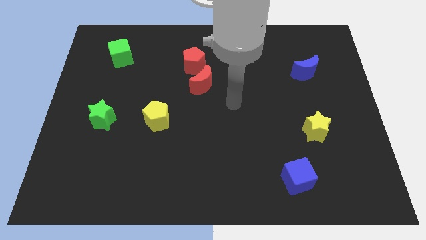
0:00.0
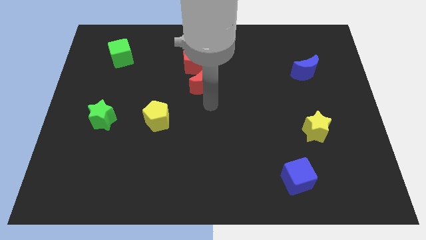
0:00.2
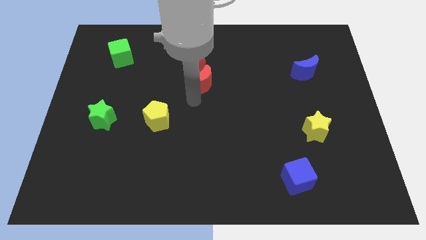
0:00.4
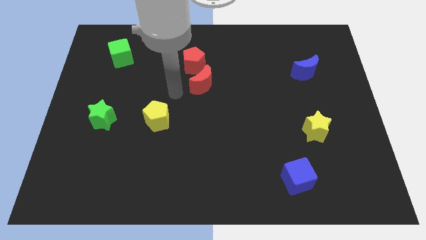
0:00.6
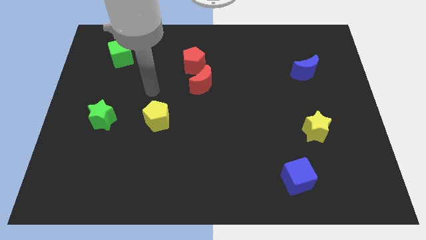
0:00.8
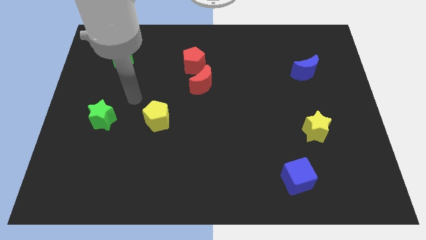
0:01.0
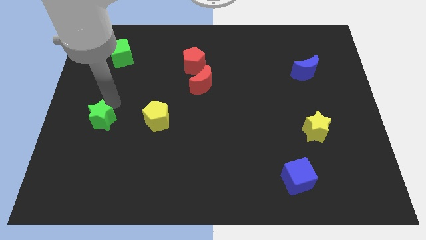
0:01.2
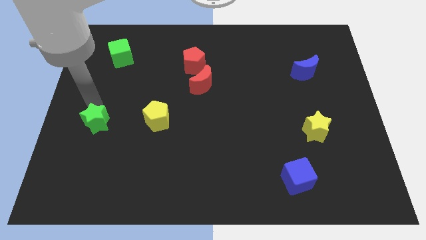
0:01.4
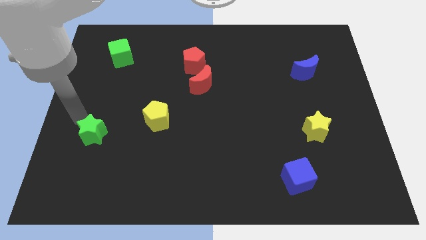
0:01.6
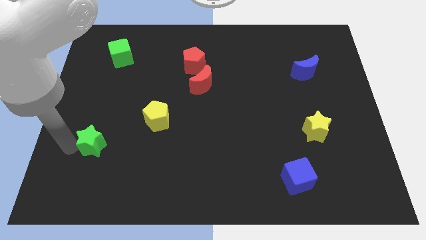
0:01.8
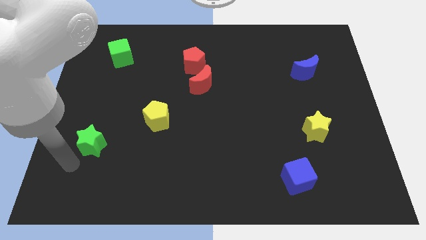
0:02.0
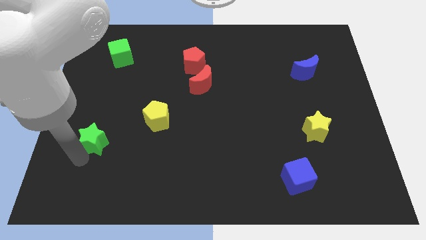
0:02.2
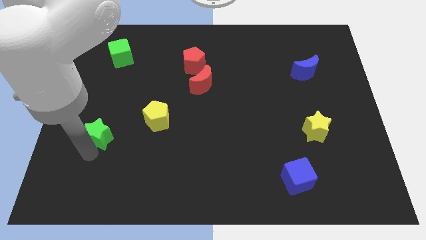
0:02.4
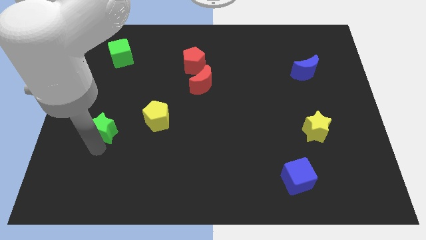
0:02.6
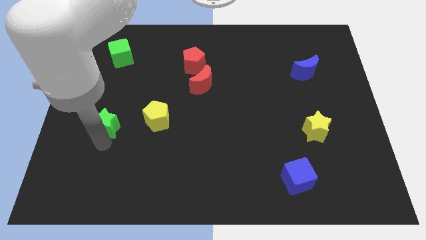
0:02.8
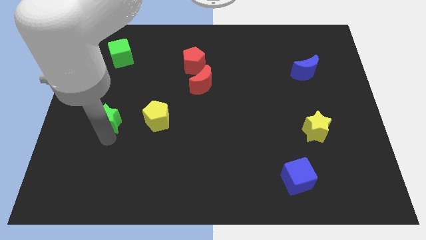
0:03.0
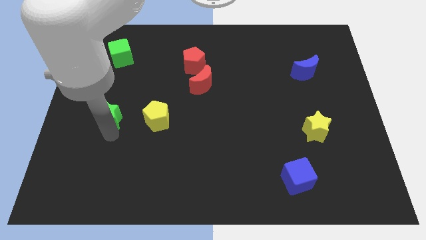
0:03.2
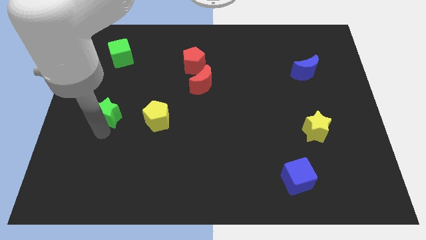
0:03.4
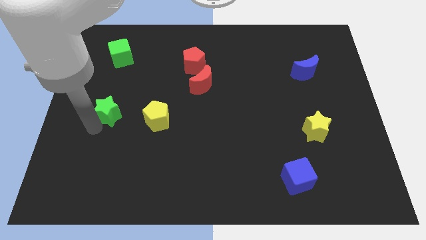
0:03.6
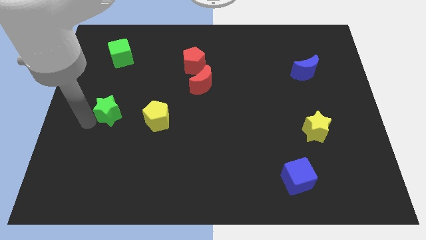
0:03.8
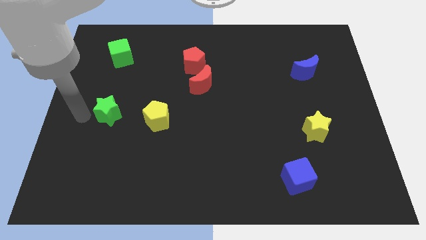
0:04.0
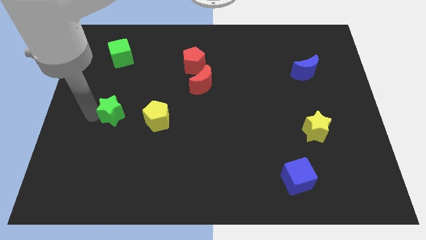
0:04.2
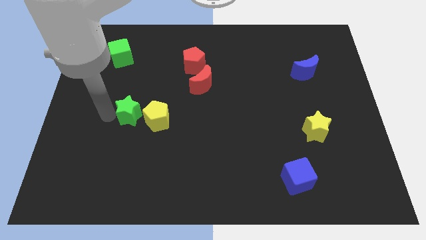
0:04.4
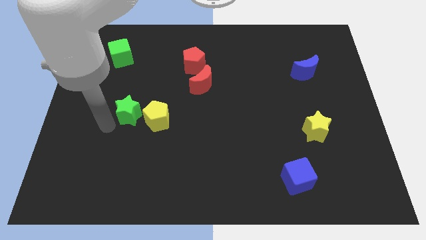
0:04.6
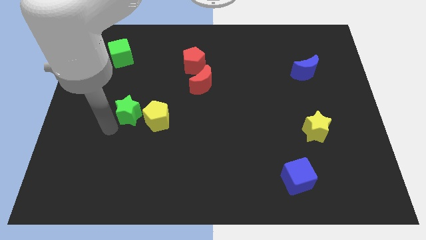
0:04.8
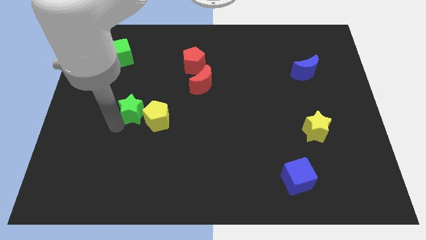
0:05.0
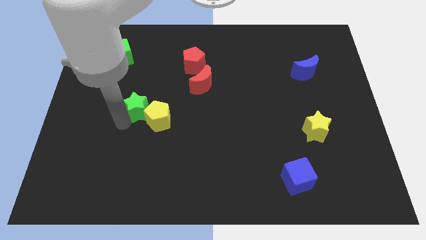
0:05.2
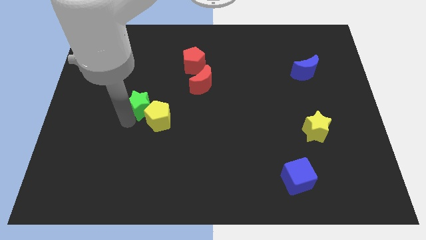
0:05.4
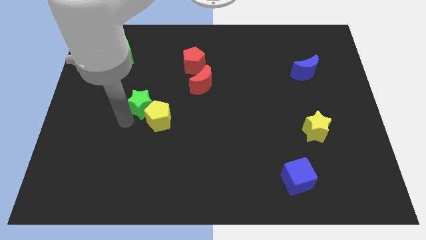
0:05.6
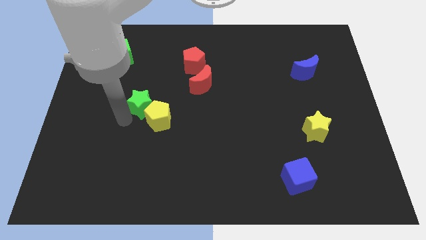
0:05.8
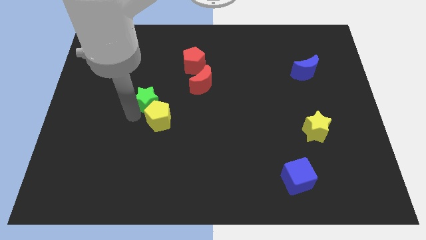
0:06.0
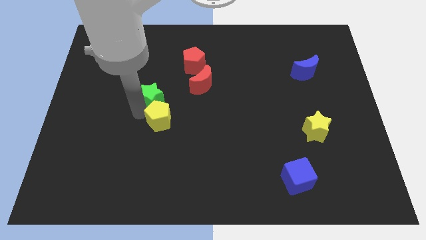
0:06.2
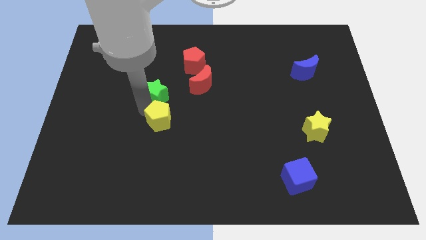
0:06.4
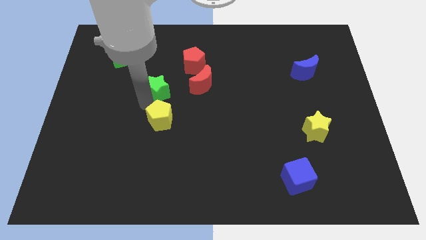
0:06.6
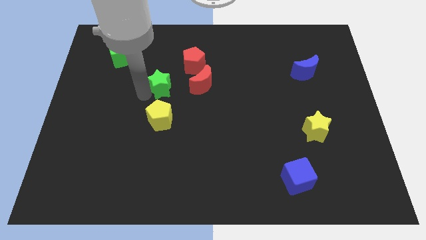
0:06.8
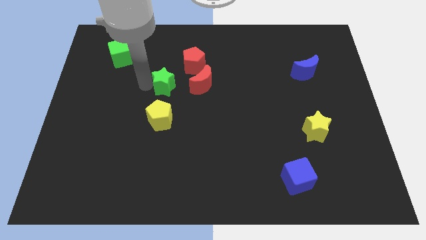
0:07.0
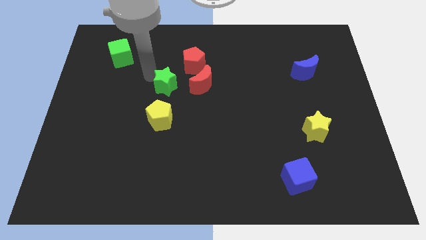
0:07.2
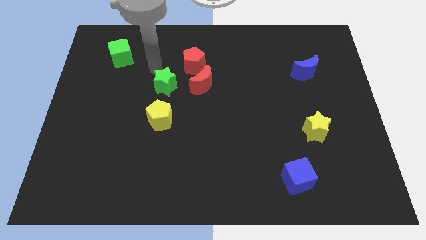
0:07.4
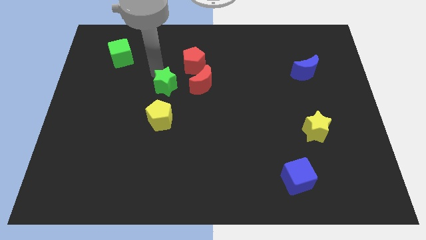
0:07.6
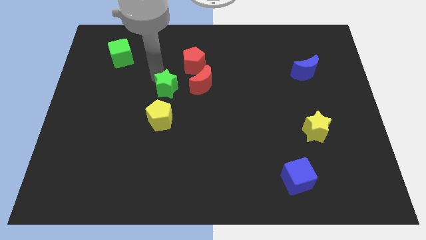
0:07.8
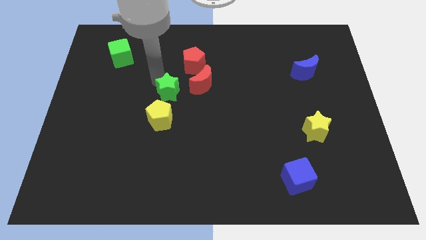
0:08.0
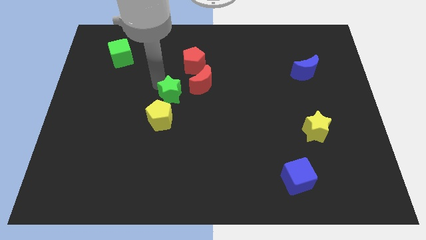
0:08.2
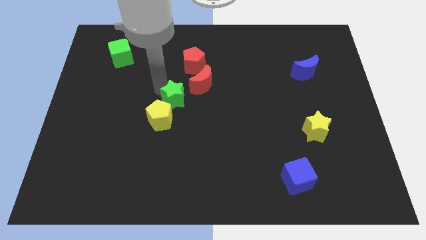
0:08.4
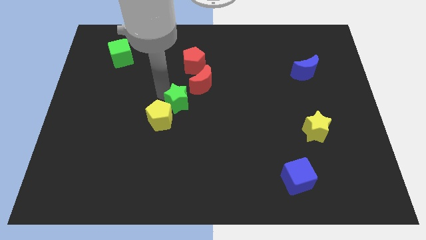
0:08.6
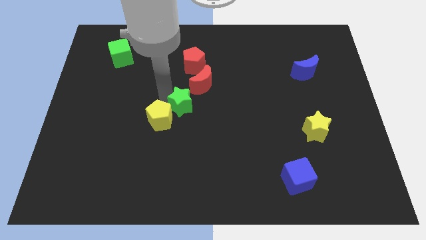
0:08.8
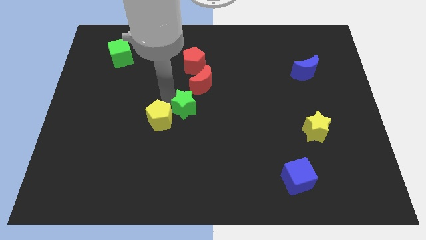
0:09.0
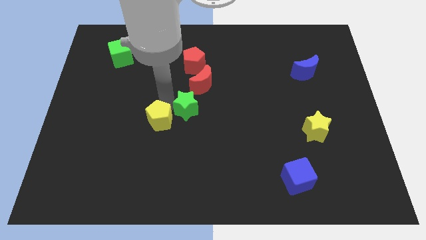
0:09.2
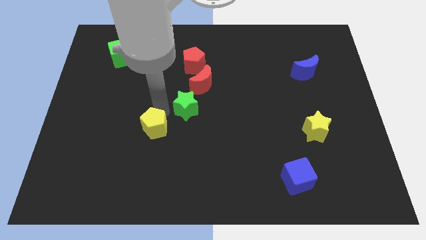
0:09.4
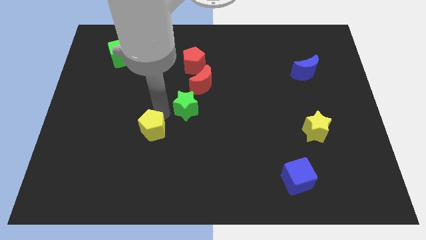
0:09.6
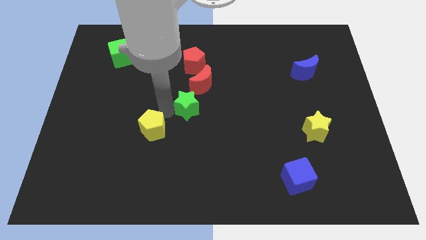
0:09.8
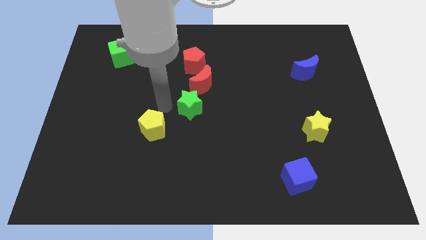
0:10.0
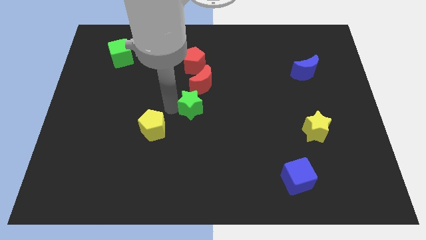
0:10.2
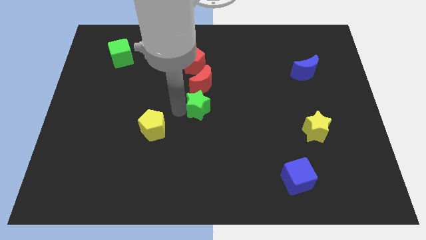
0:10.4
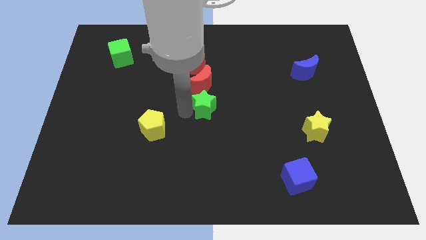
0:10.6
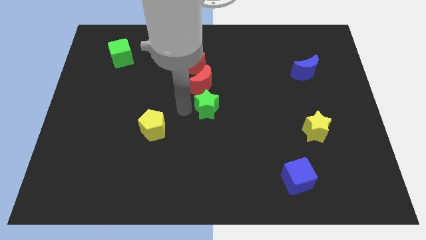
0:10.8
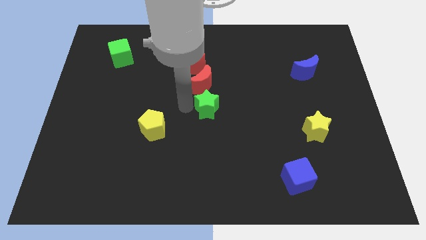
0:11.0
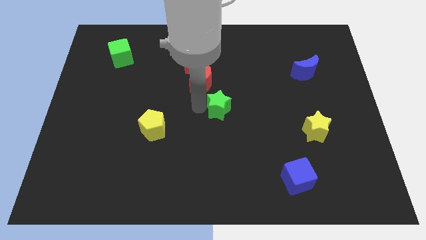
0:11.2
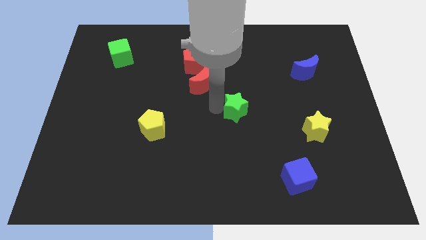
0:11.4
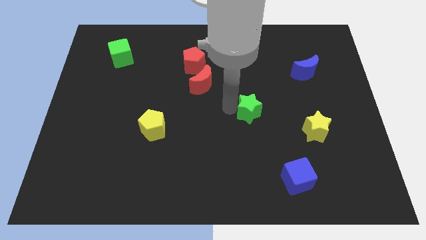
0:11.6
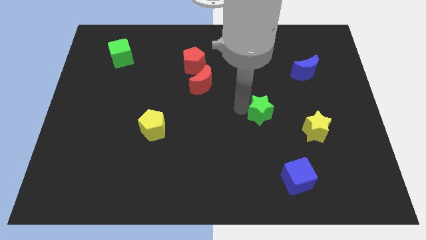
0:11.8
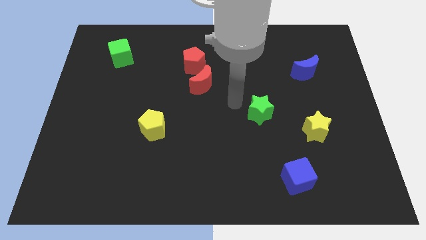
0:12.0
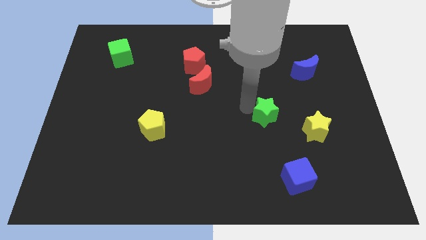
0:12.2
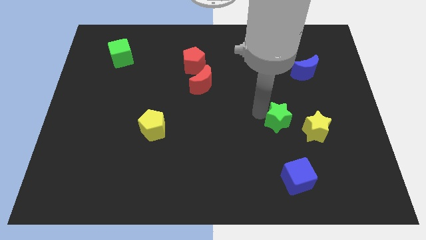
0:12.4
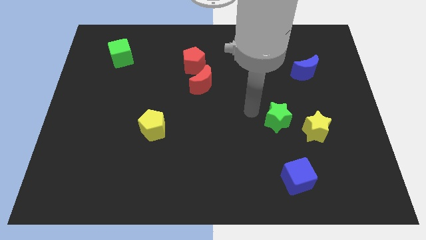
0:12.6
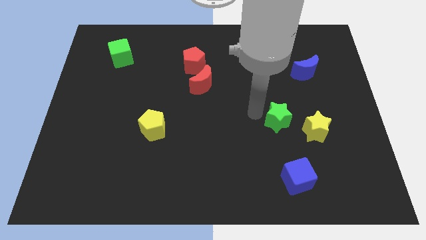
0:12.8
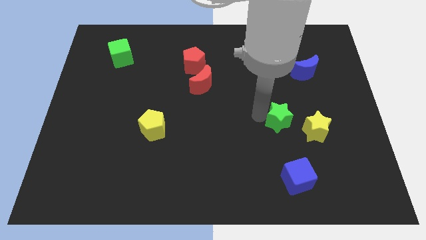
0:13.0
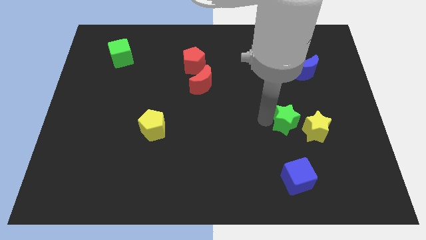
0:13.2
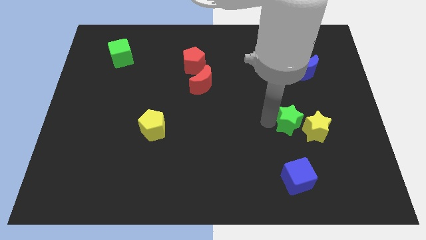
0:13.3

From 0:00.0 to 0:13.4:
slide the green star next to the yellow star
